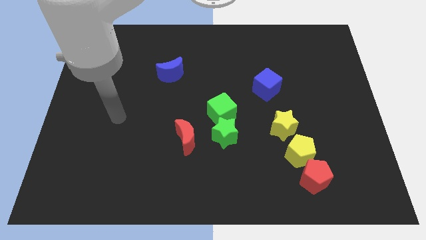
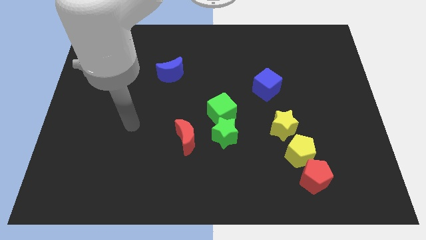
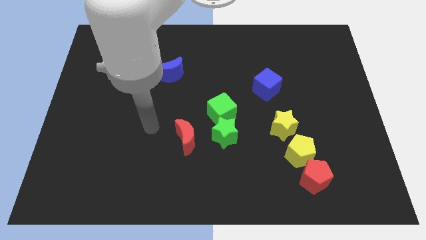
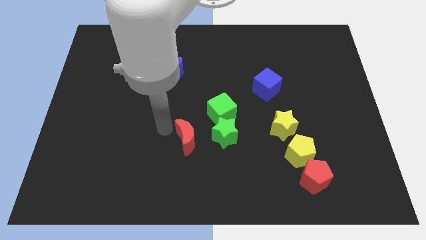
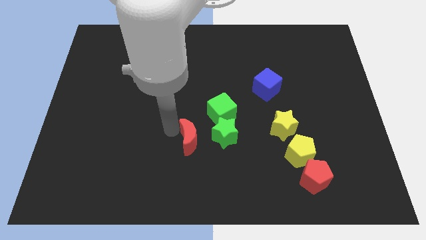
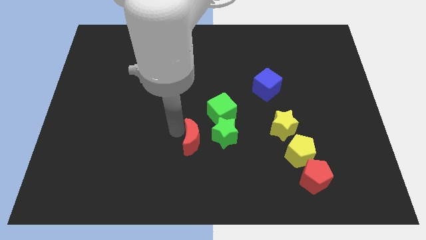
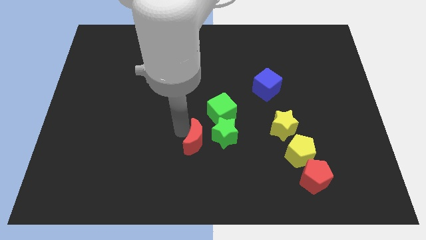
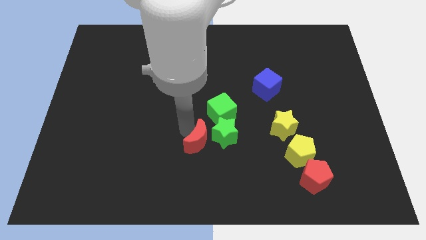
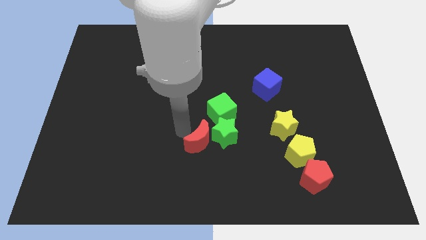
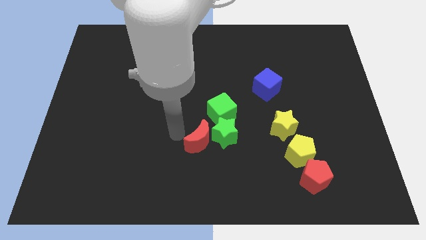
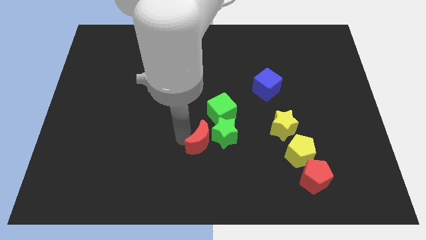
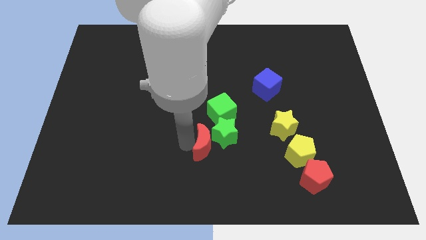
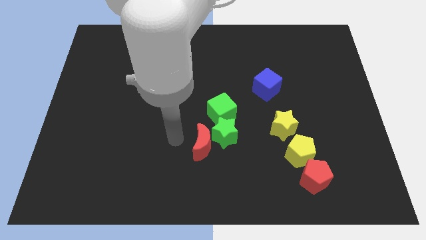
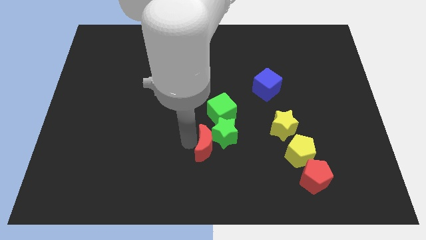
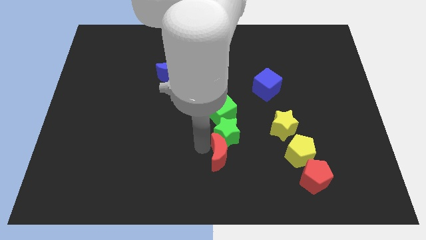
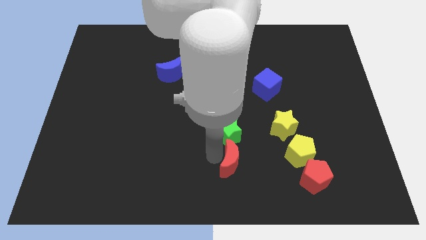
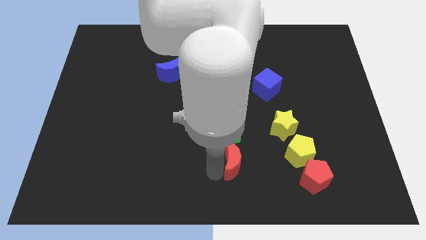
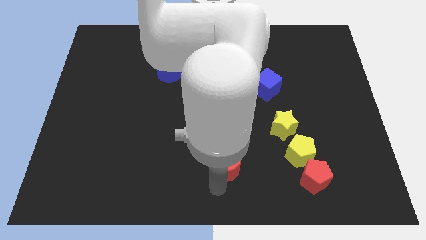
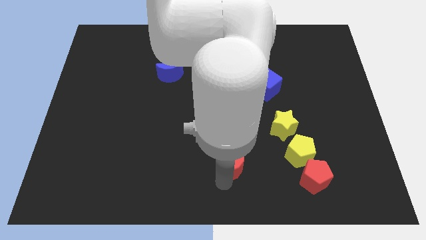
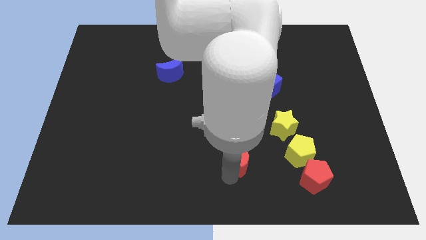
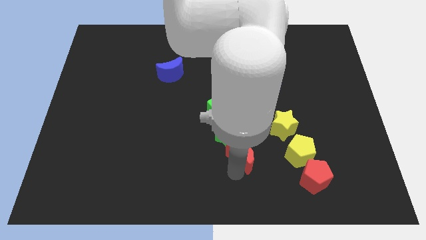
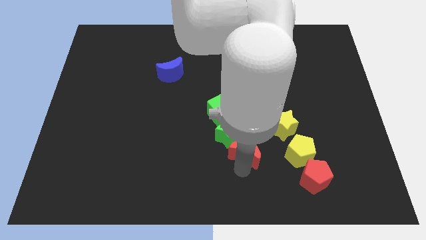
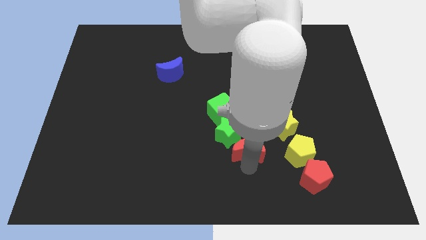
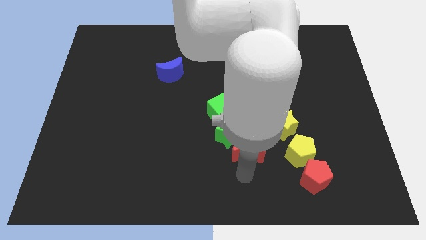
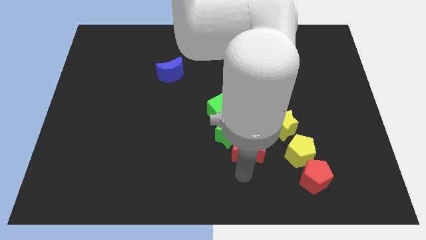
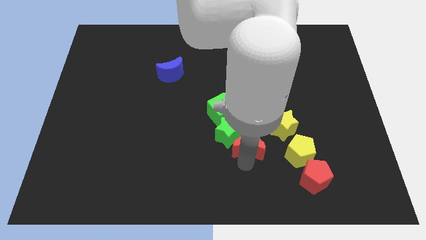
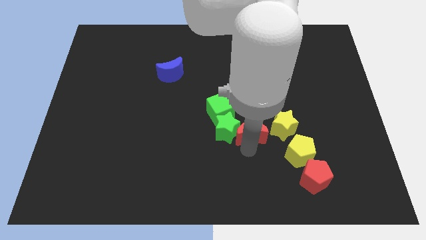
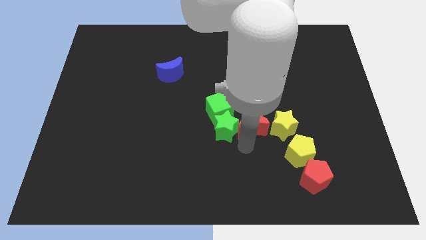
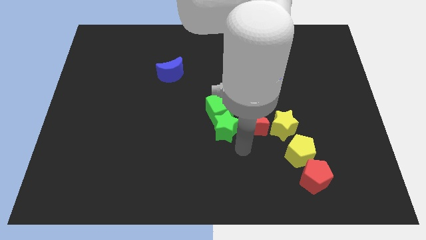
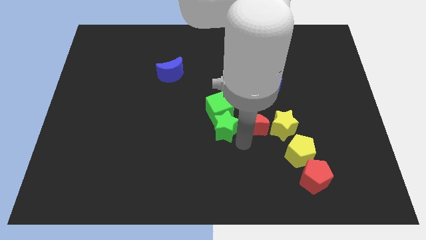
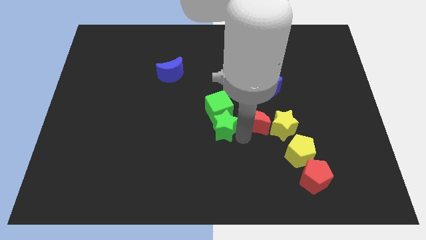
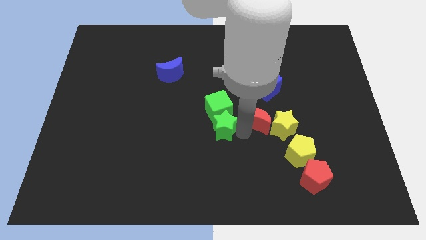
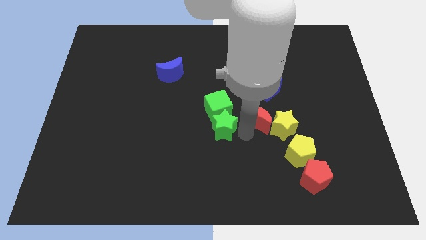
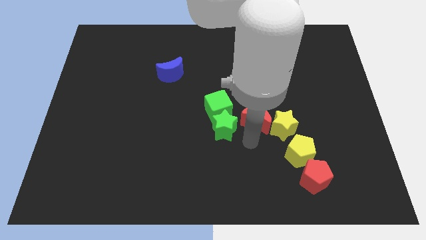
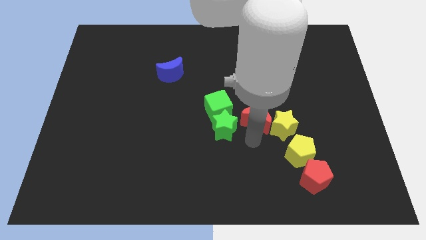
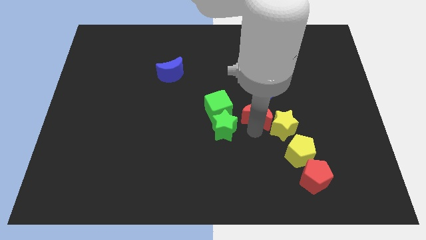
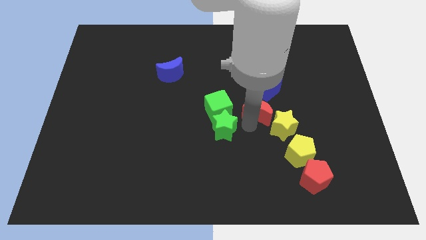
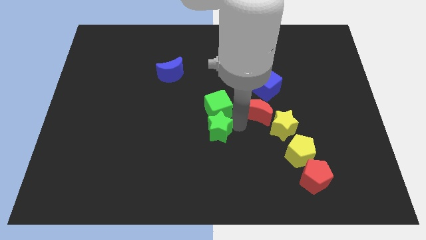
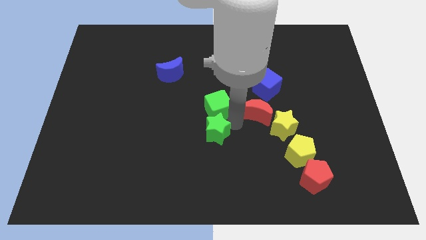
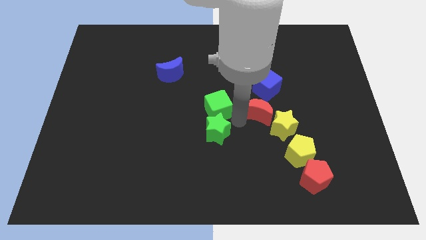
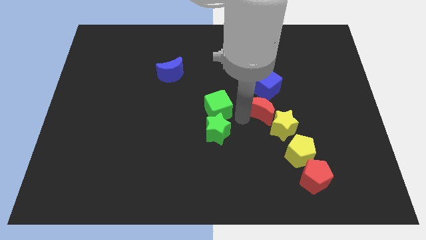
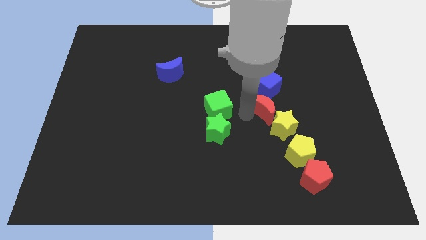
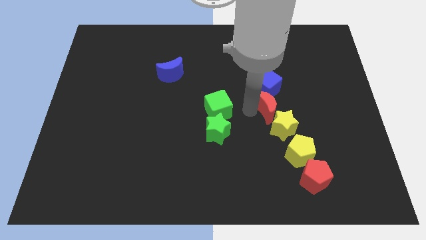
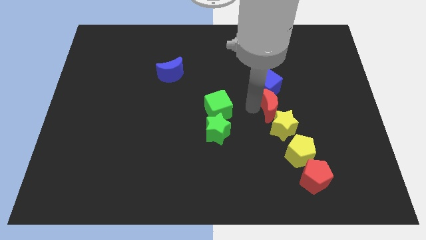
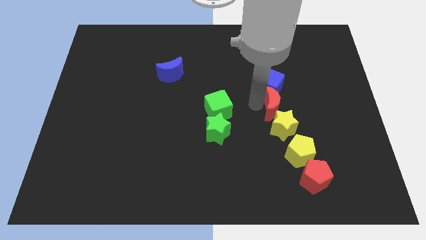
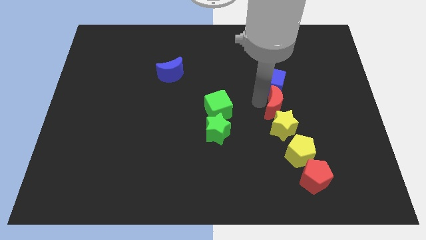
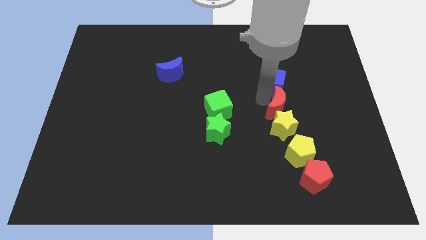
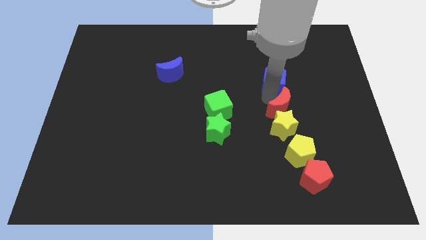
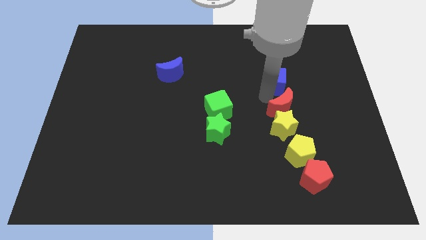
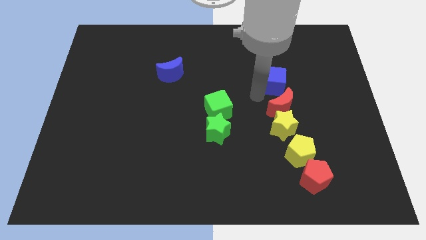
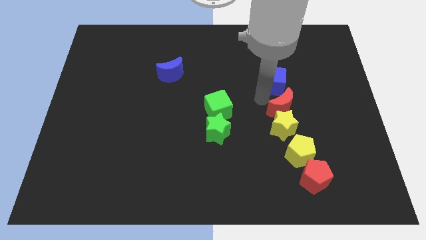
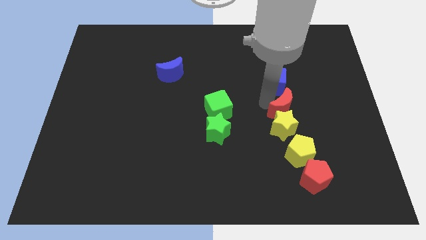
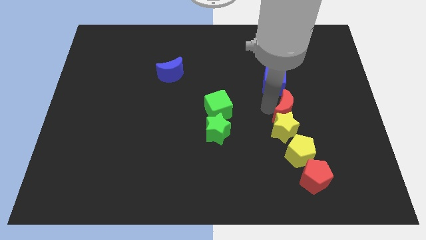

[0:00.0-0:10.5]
move the red moon right

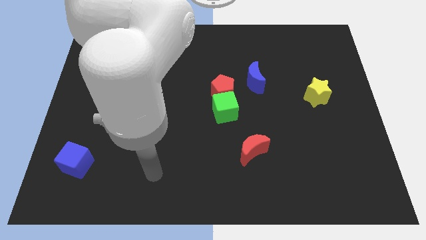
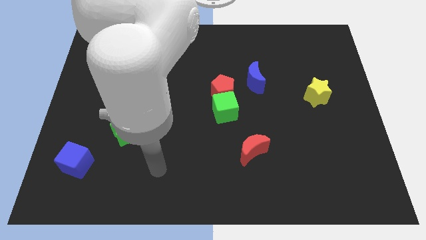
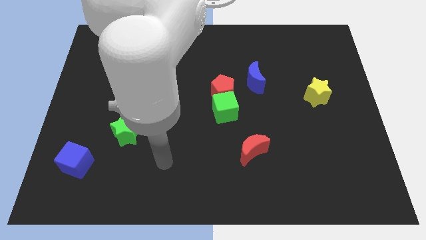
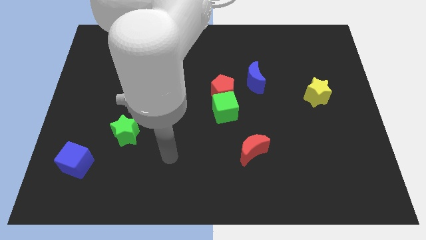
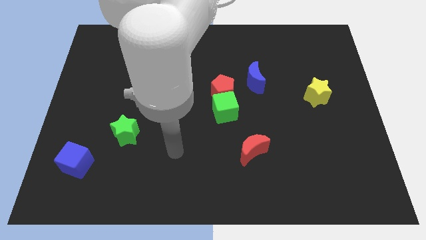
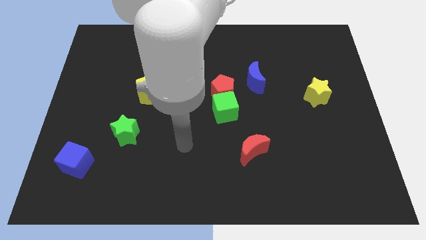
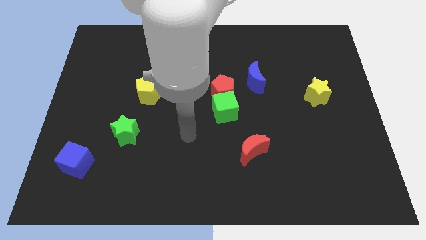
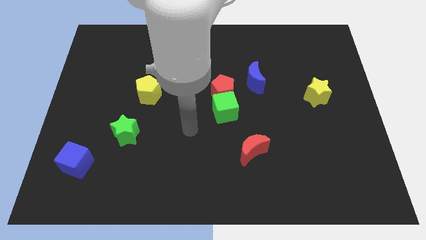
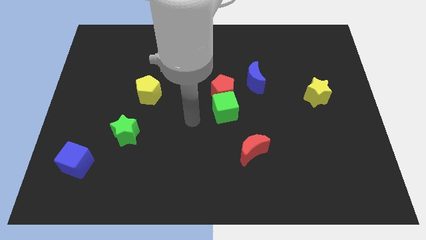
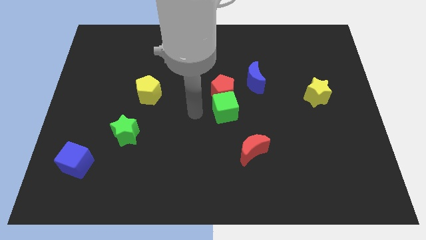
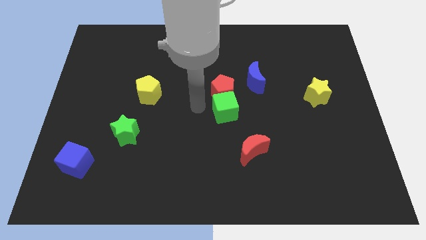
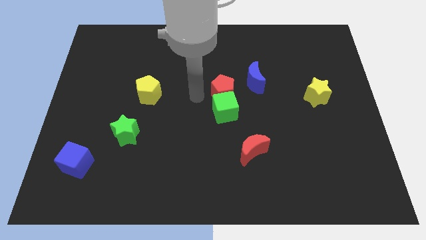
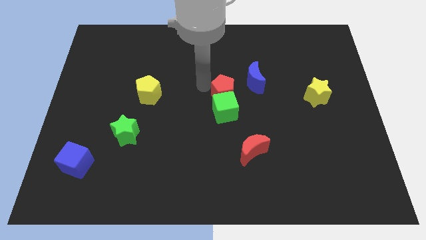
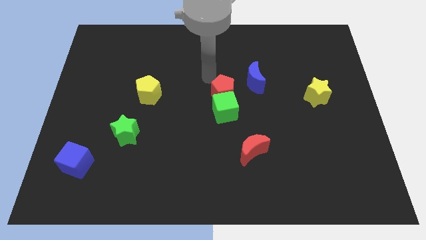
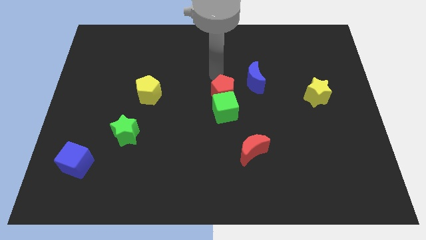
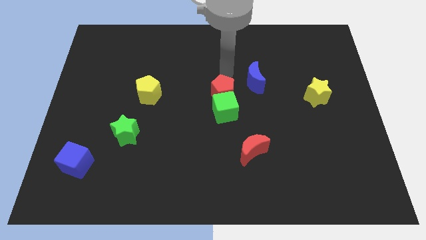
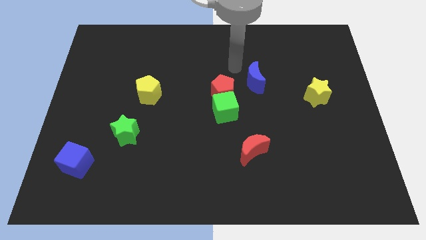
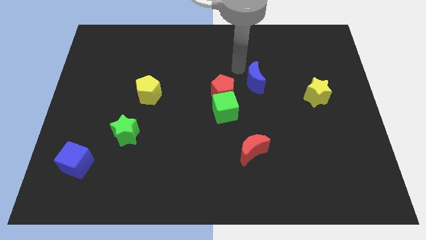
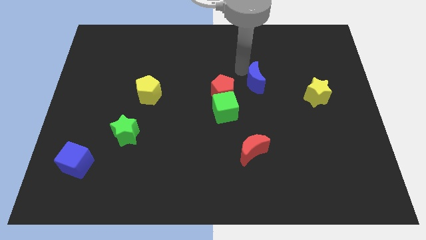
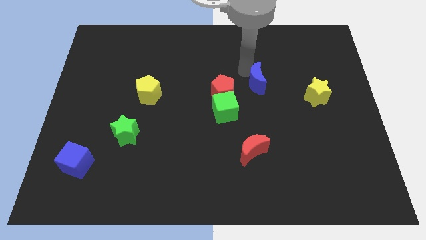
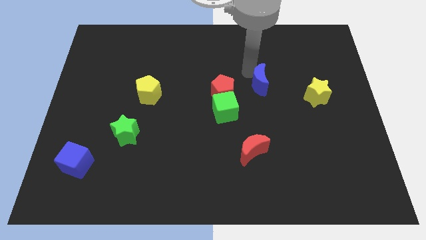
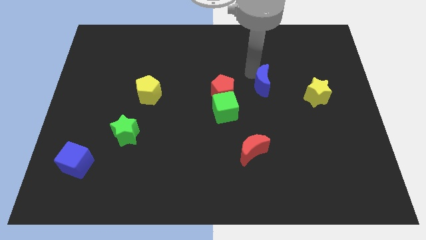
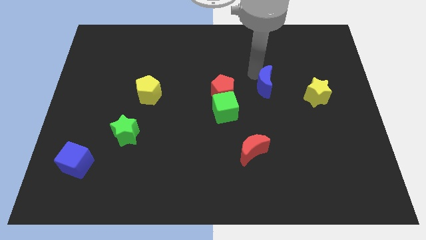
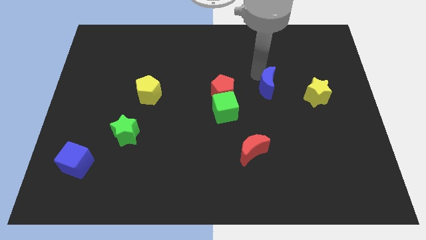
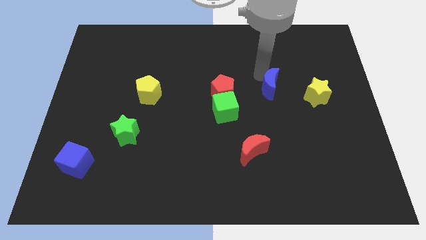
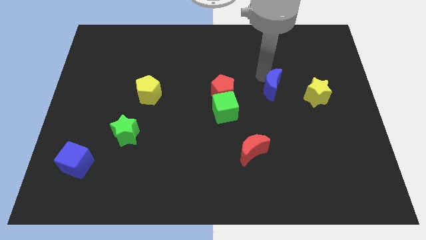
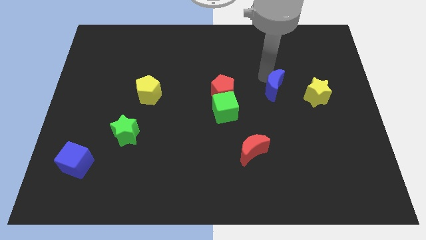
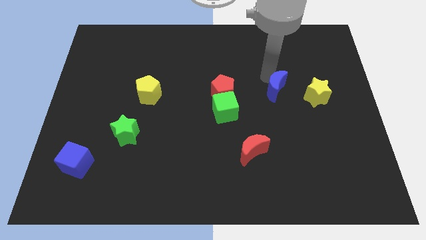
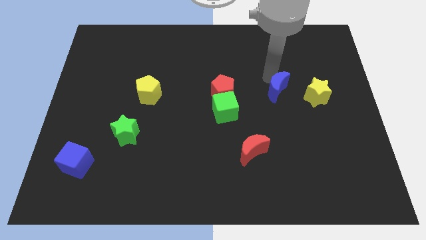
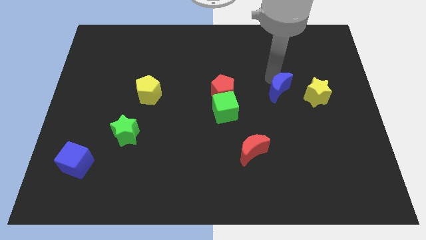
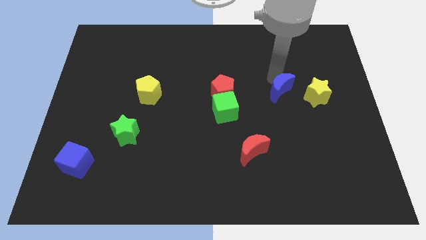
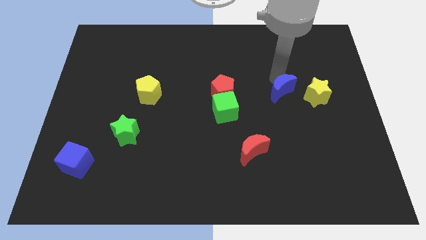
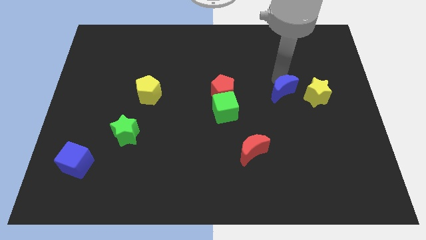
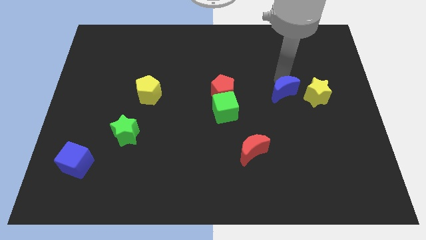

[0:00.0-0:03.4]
move the blue moon downwards and to the right diagonally a little bit
